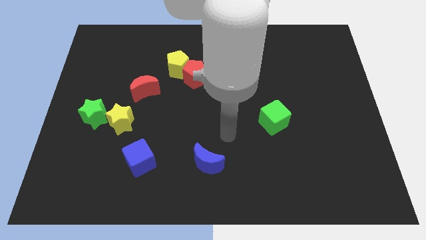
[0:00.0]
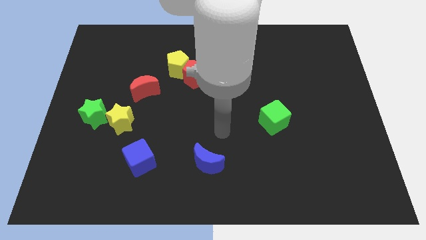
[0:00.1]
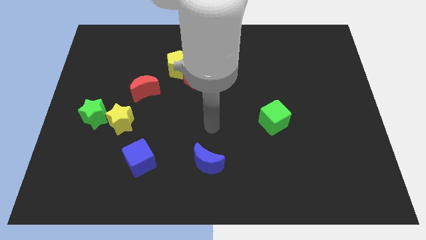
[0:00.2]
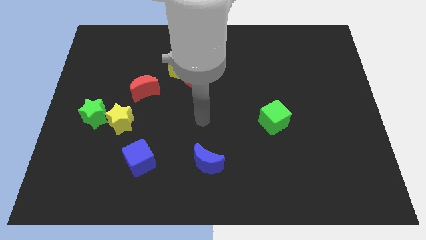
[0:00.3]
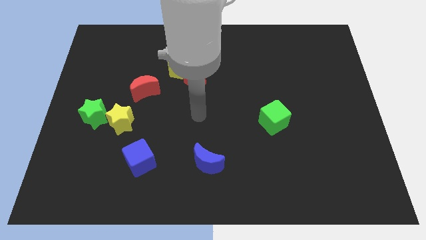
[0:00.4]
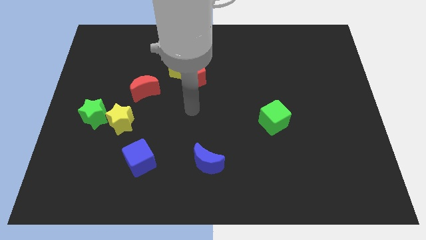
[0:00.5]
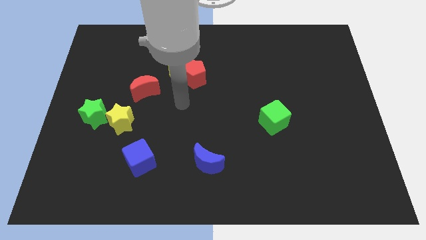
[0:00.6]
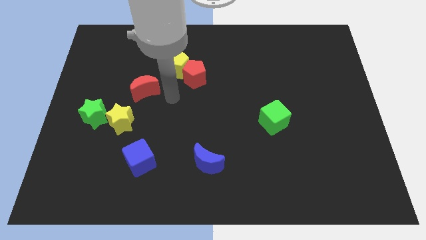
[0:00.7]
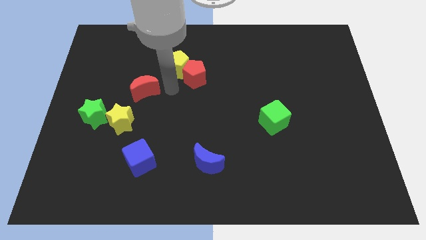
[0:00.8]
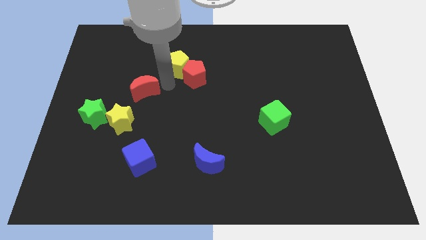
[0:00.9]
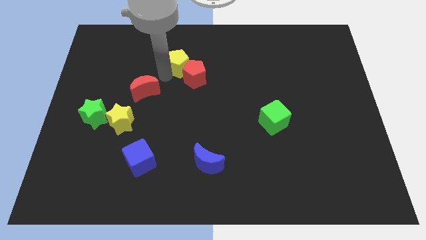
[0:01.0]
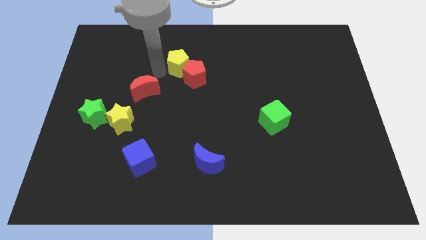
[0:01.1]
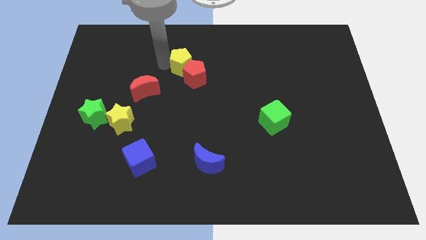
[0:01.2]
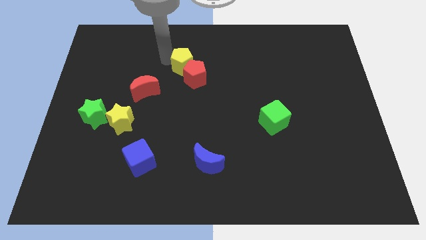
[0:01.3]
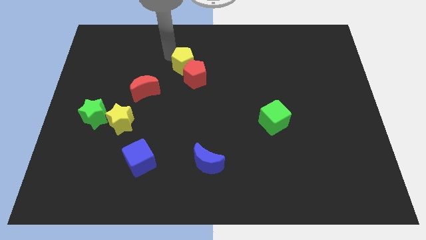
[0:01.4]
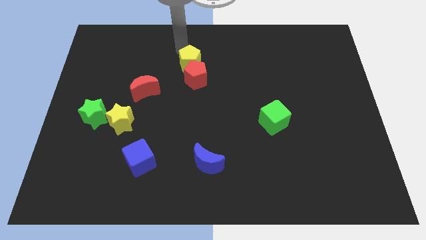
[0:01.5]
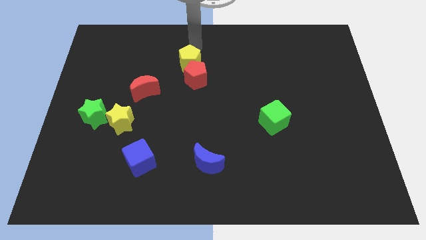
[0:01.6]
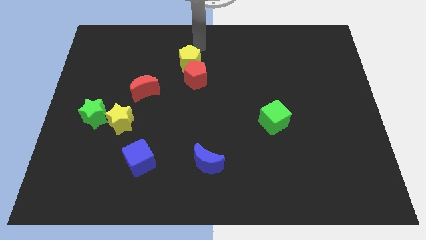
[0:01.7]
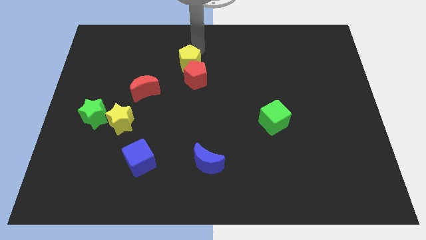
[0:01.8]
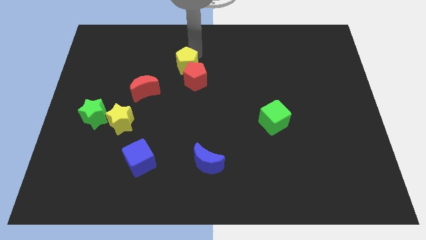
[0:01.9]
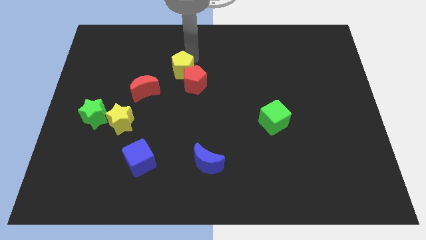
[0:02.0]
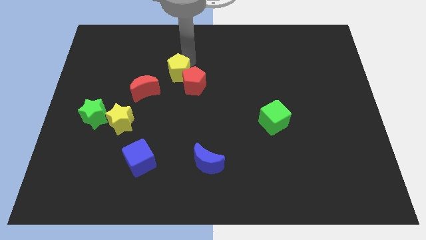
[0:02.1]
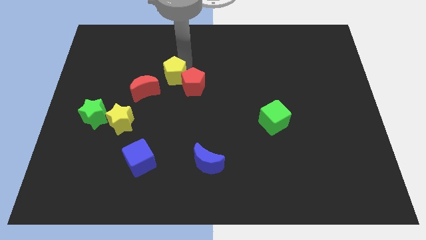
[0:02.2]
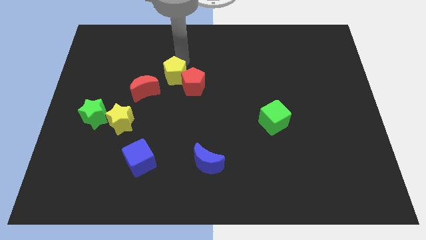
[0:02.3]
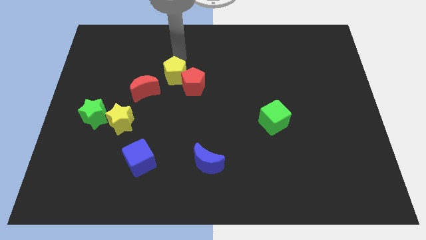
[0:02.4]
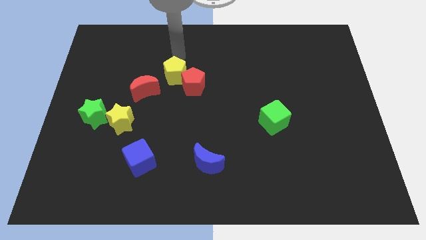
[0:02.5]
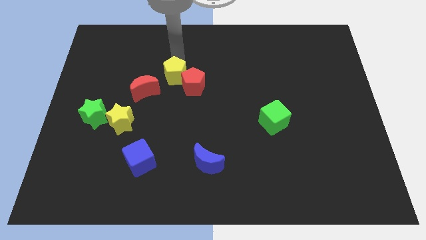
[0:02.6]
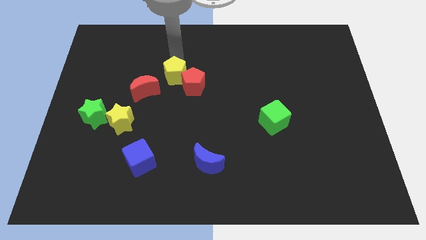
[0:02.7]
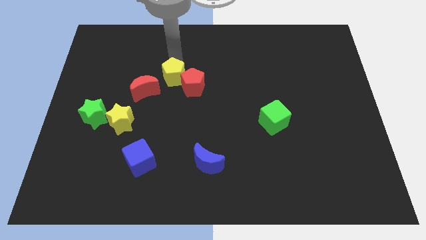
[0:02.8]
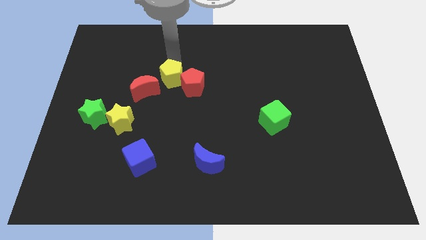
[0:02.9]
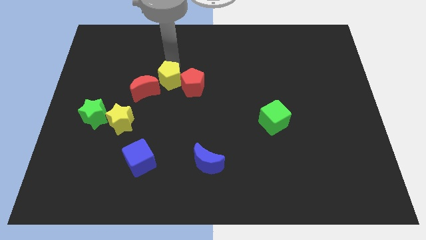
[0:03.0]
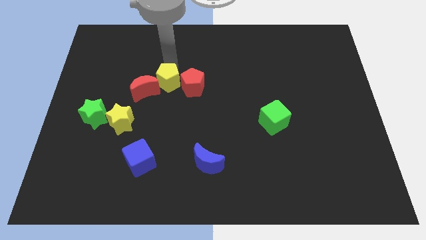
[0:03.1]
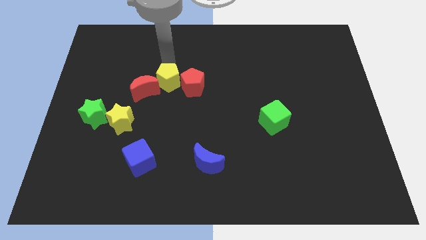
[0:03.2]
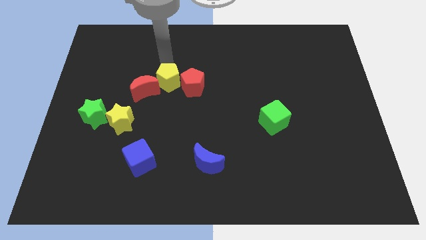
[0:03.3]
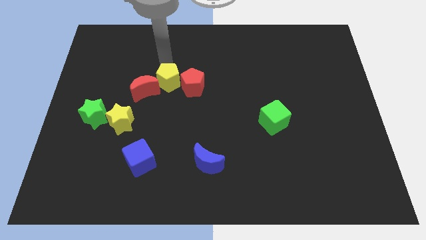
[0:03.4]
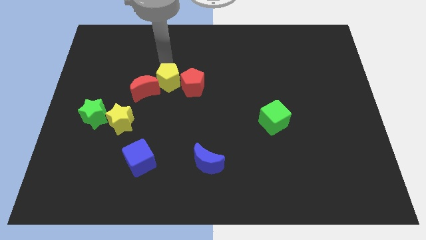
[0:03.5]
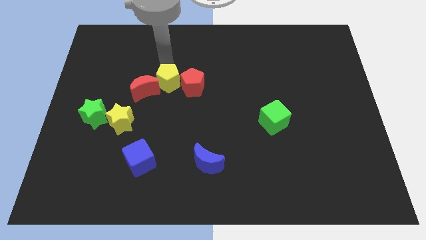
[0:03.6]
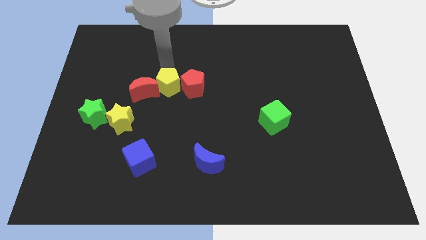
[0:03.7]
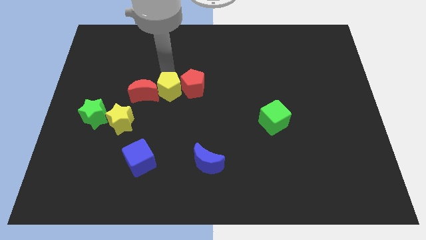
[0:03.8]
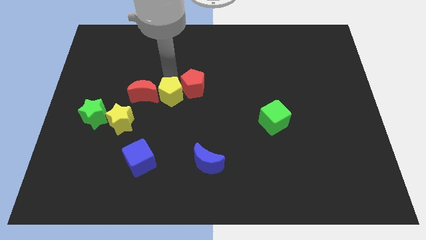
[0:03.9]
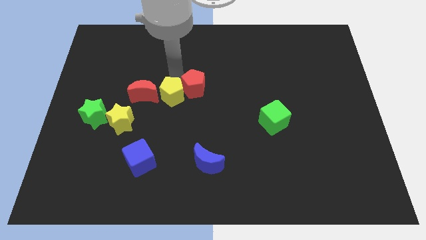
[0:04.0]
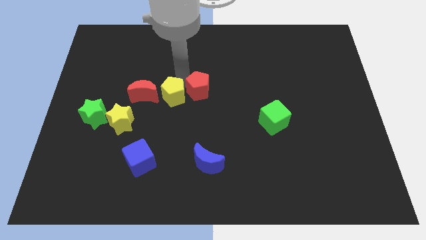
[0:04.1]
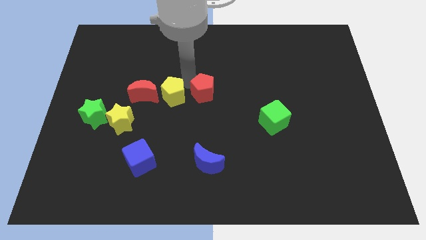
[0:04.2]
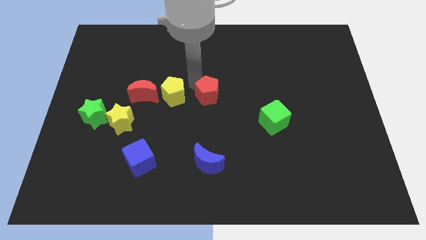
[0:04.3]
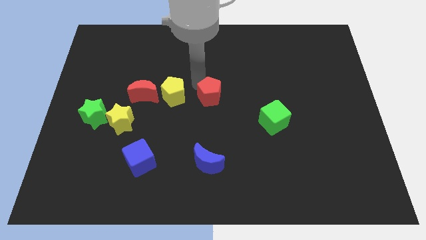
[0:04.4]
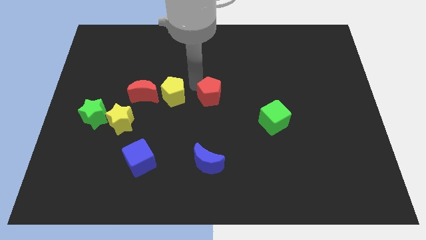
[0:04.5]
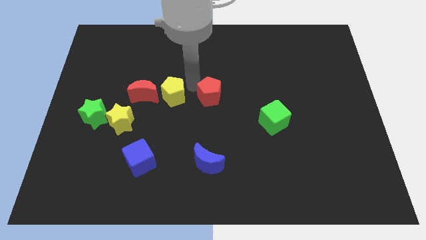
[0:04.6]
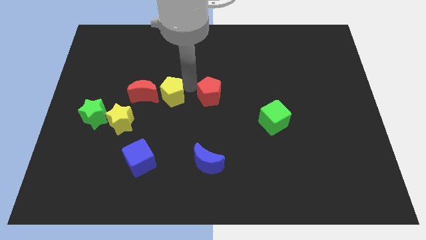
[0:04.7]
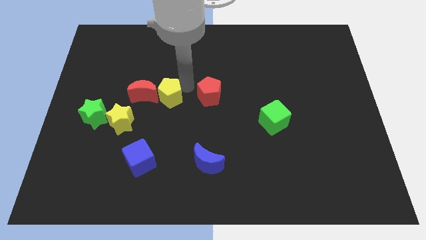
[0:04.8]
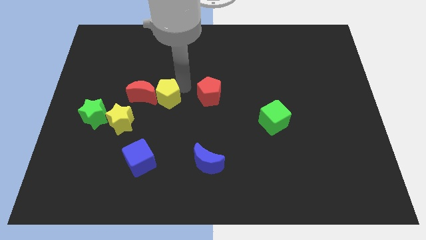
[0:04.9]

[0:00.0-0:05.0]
slightly slide the yellow pentagon downwards and left diagonally

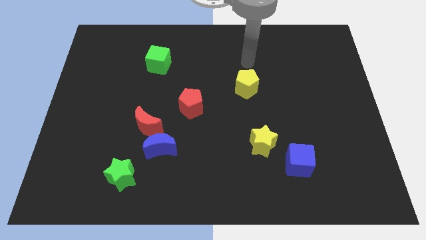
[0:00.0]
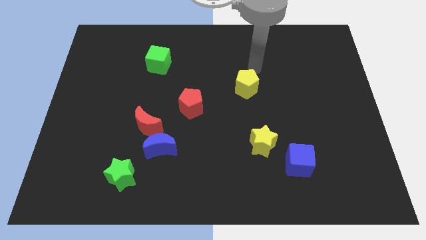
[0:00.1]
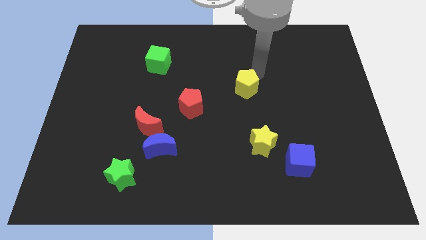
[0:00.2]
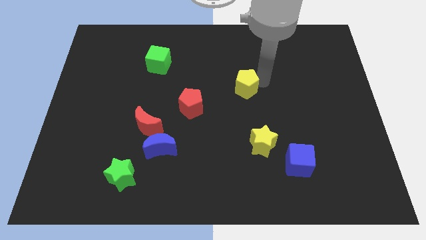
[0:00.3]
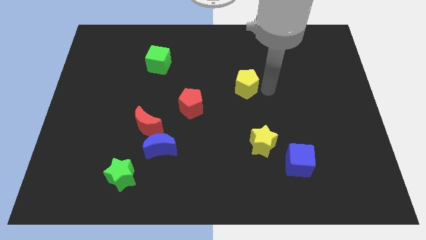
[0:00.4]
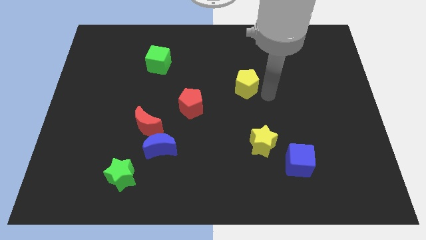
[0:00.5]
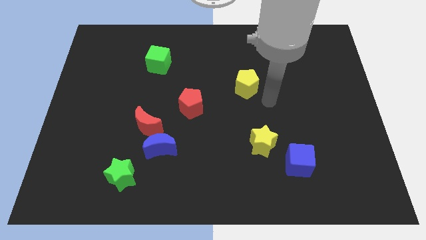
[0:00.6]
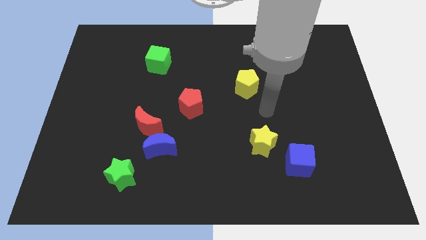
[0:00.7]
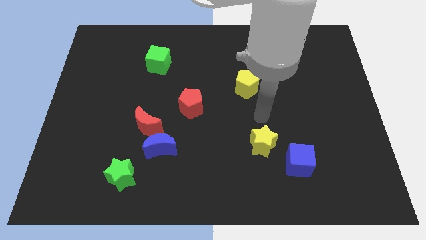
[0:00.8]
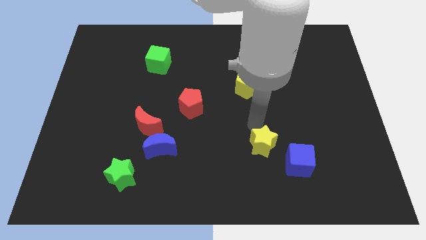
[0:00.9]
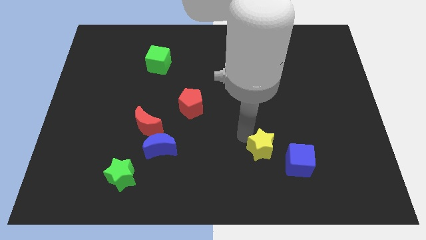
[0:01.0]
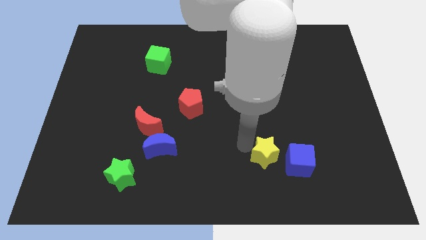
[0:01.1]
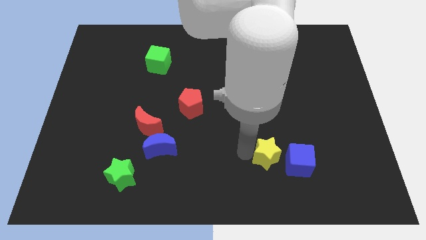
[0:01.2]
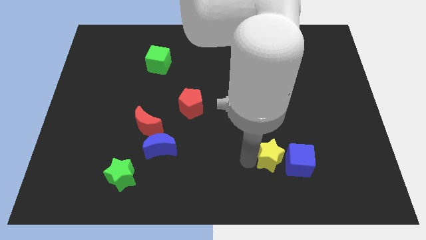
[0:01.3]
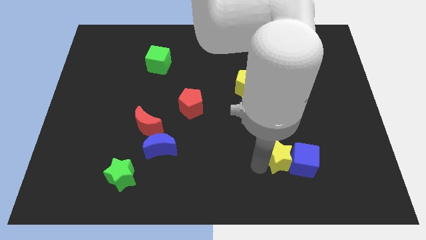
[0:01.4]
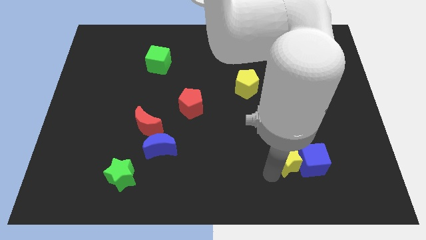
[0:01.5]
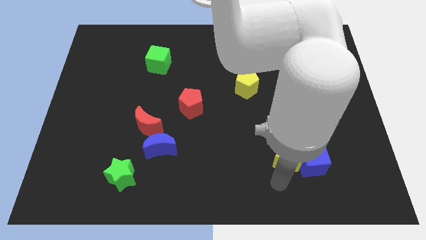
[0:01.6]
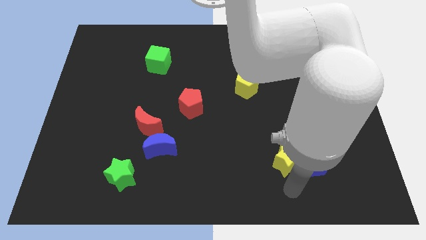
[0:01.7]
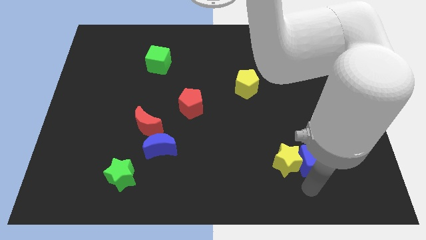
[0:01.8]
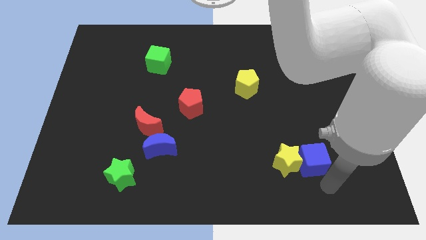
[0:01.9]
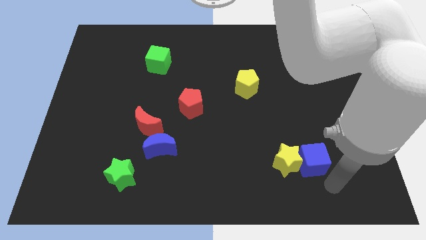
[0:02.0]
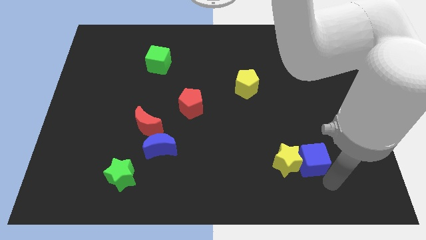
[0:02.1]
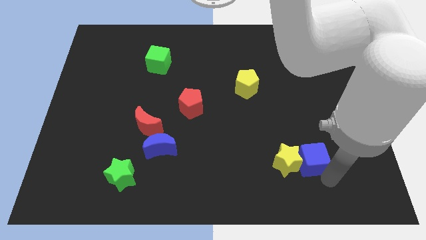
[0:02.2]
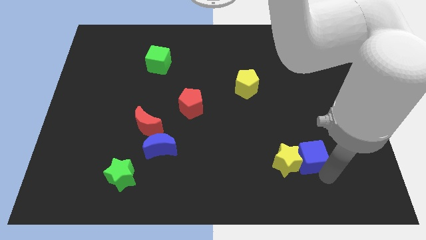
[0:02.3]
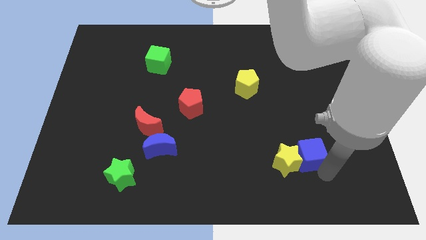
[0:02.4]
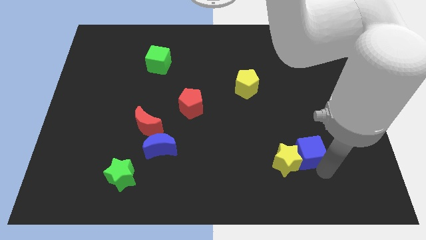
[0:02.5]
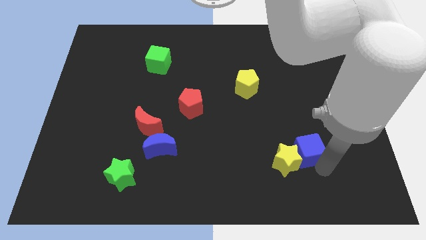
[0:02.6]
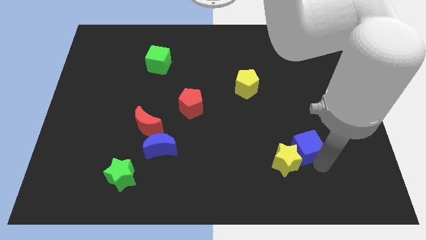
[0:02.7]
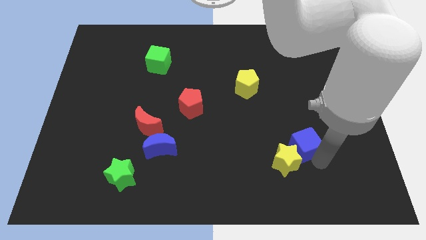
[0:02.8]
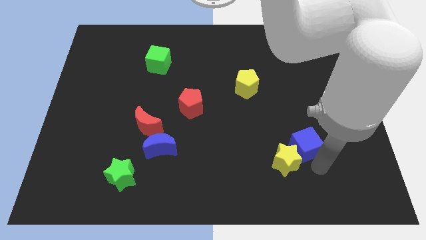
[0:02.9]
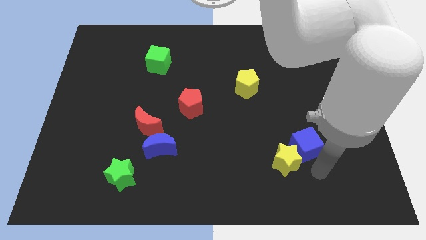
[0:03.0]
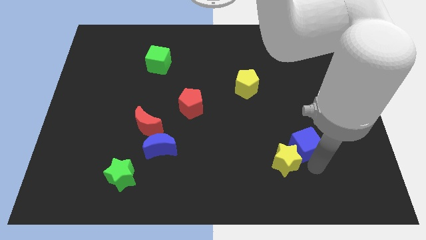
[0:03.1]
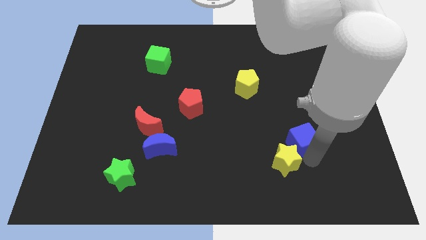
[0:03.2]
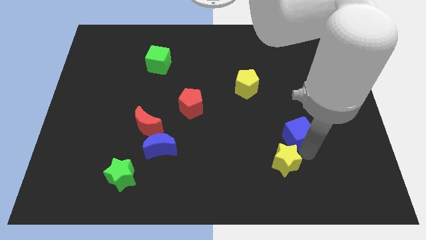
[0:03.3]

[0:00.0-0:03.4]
slightly push the blue cube upwards

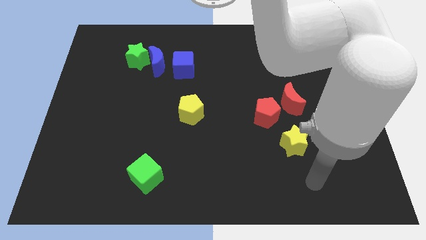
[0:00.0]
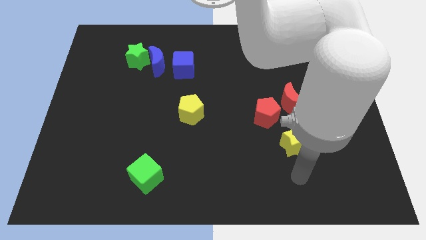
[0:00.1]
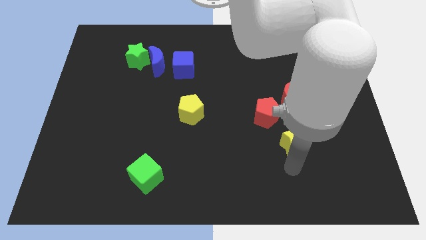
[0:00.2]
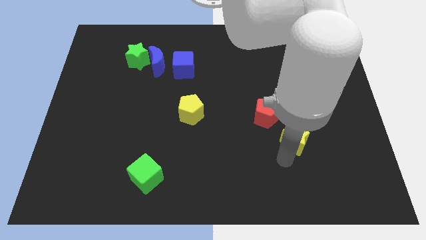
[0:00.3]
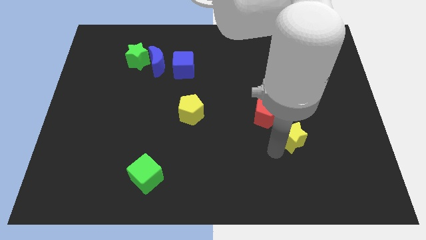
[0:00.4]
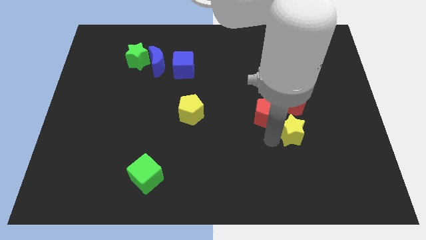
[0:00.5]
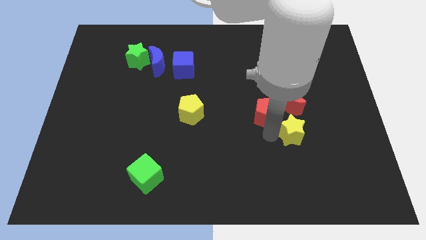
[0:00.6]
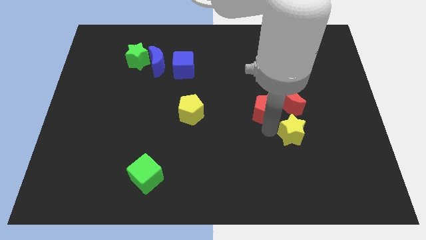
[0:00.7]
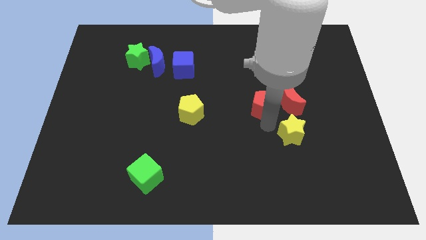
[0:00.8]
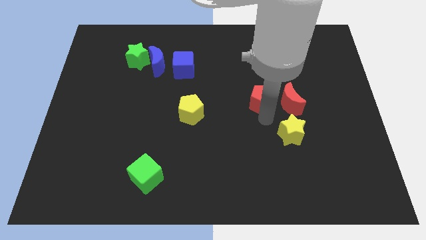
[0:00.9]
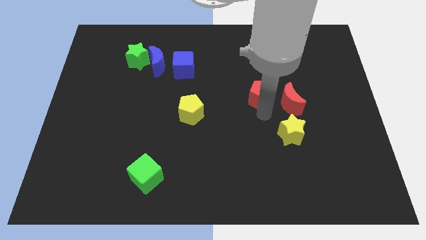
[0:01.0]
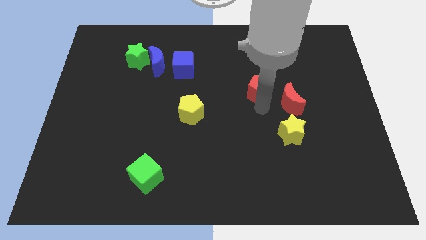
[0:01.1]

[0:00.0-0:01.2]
push the red pentagon up slightly
